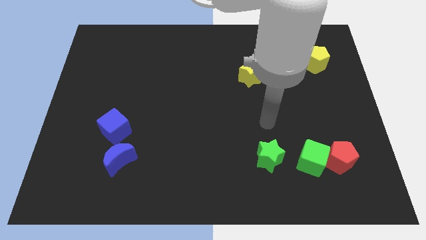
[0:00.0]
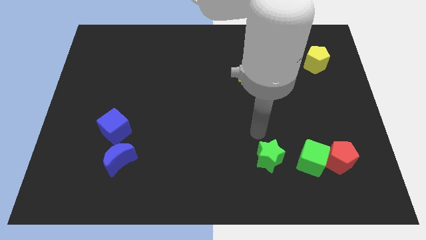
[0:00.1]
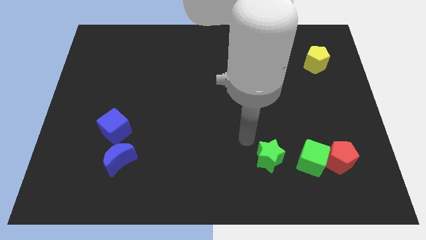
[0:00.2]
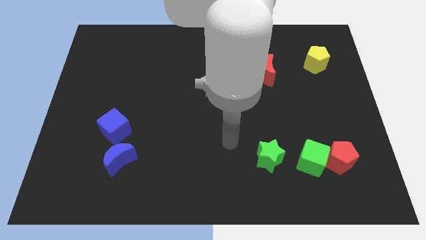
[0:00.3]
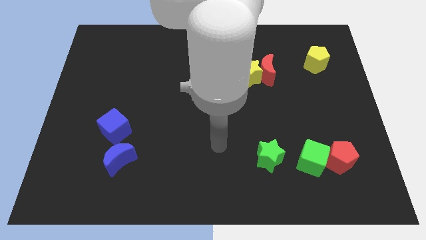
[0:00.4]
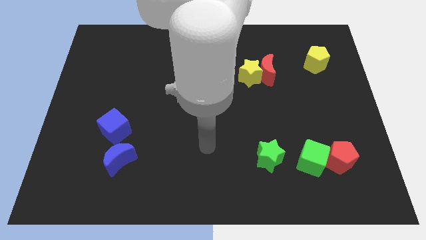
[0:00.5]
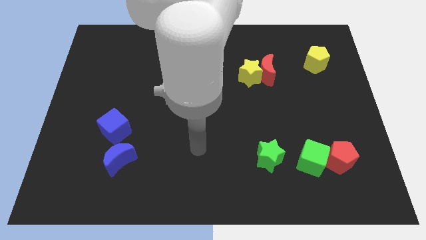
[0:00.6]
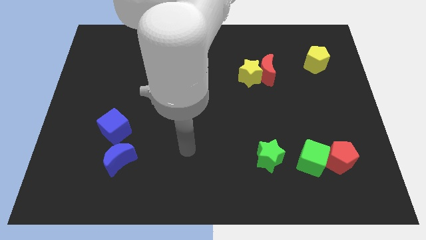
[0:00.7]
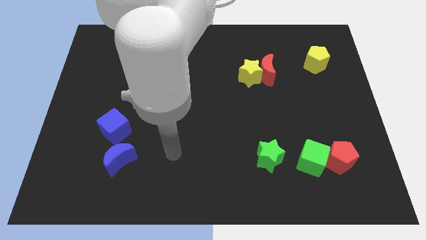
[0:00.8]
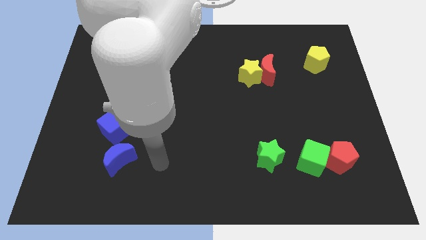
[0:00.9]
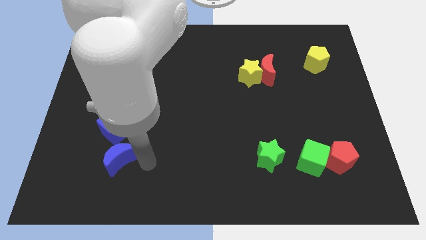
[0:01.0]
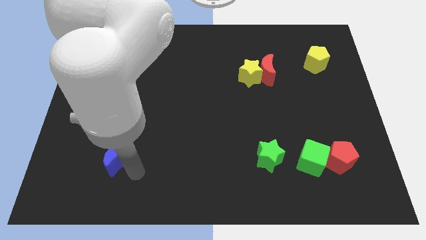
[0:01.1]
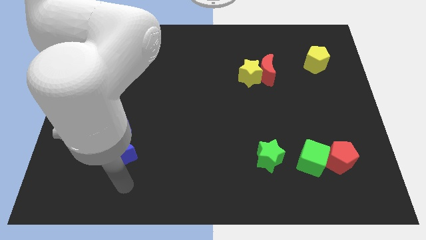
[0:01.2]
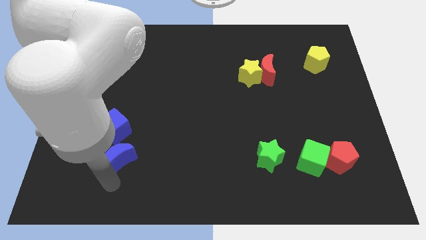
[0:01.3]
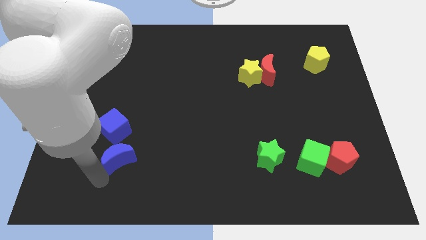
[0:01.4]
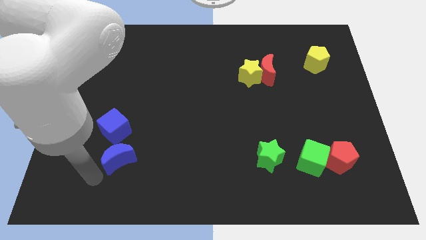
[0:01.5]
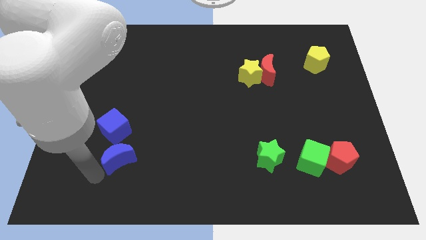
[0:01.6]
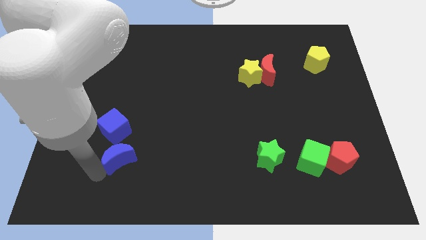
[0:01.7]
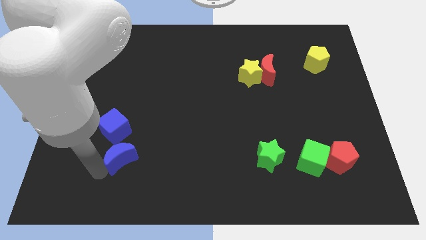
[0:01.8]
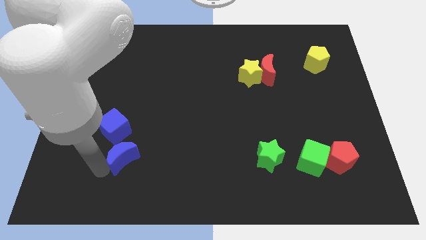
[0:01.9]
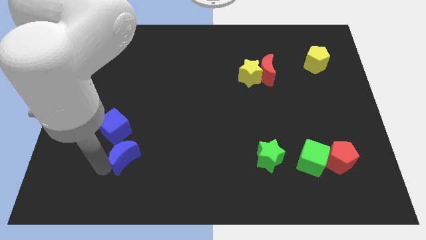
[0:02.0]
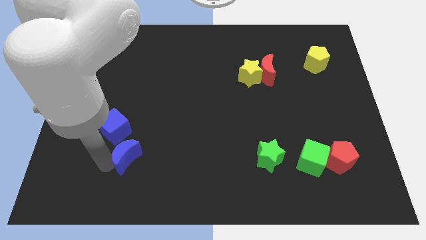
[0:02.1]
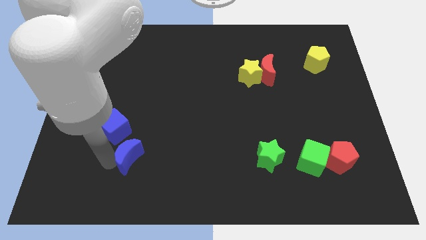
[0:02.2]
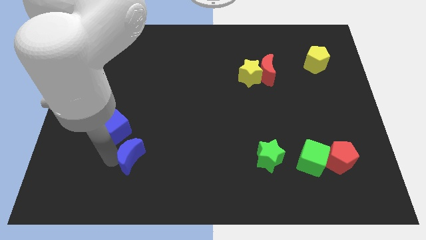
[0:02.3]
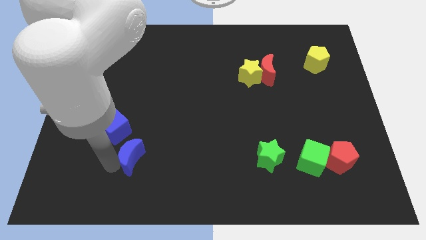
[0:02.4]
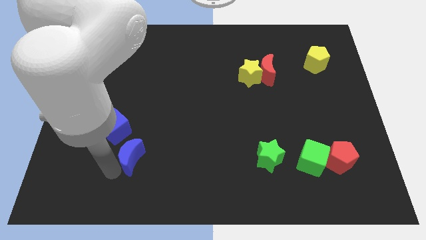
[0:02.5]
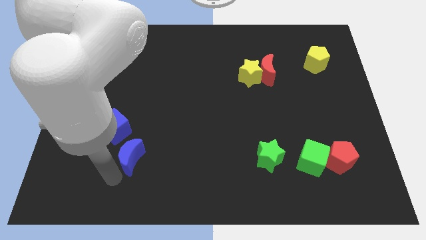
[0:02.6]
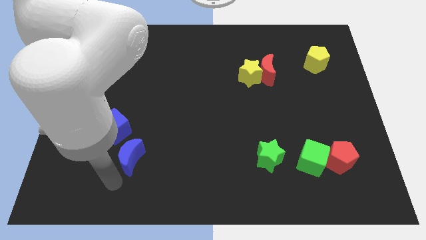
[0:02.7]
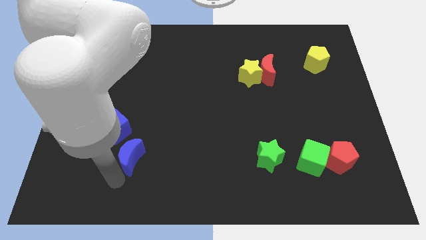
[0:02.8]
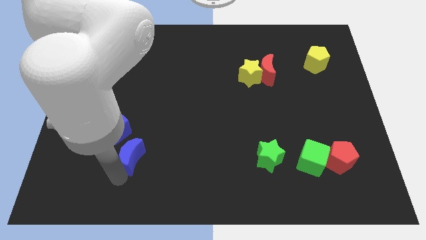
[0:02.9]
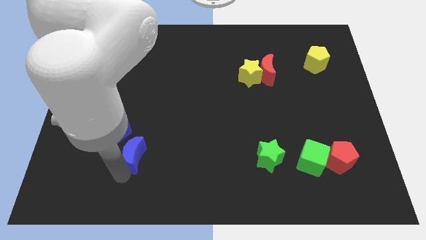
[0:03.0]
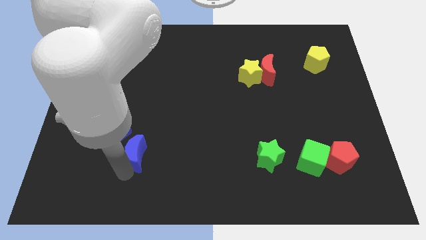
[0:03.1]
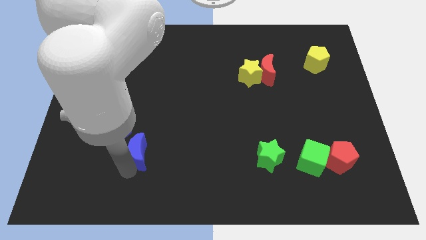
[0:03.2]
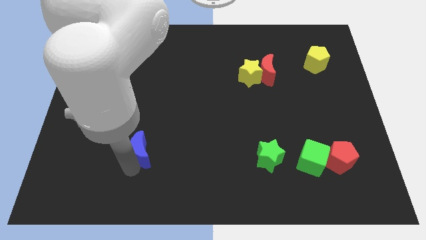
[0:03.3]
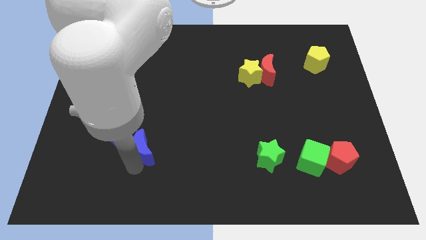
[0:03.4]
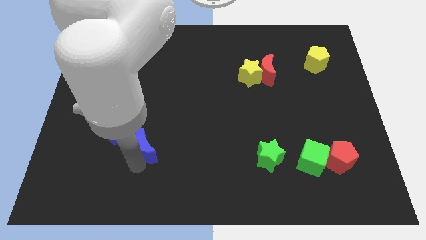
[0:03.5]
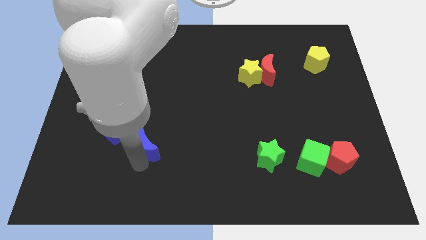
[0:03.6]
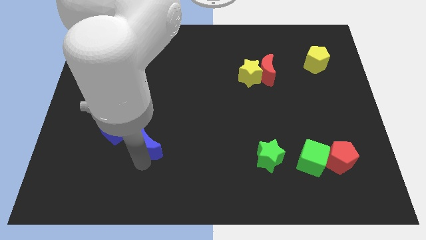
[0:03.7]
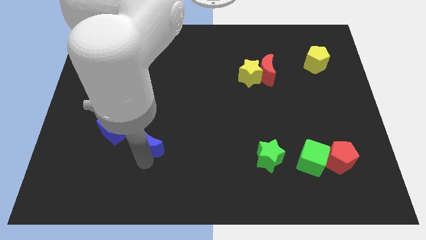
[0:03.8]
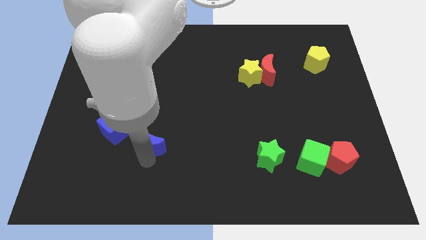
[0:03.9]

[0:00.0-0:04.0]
push the blue moon slightly up and to the right

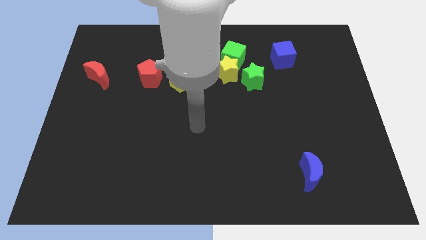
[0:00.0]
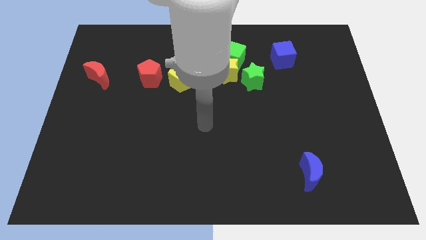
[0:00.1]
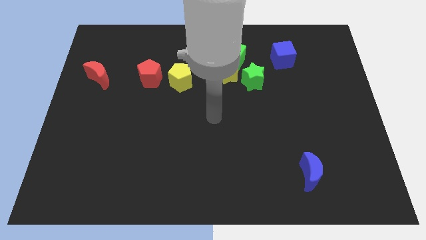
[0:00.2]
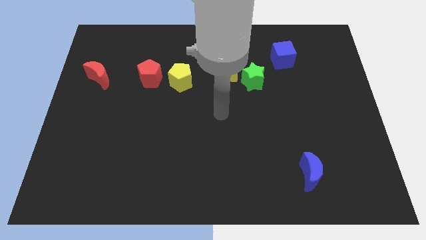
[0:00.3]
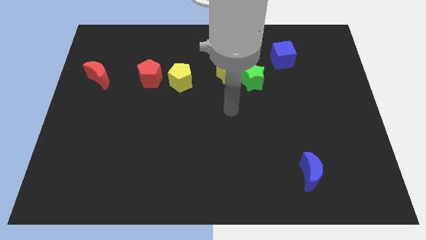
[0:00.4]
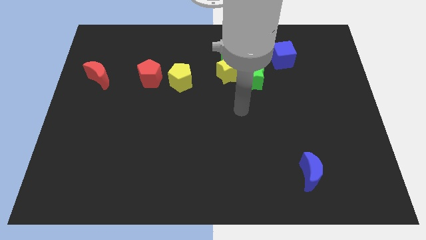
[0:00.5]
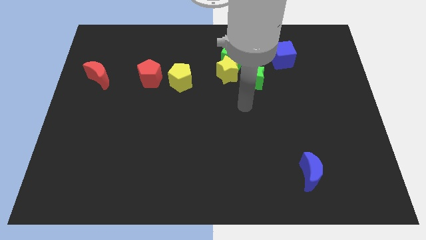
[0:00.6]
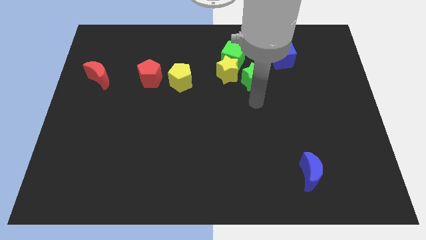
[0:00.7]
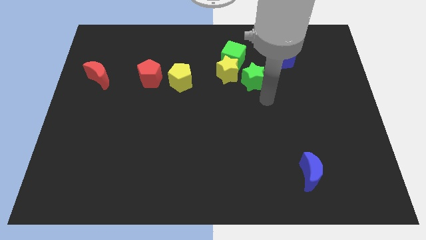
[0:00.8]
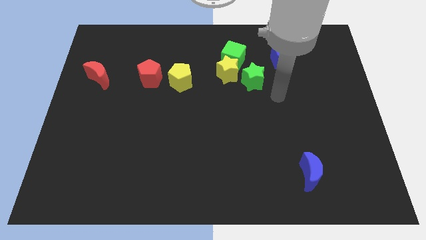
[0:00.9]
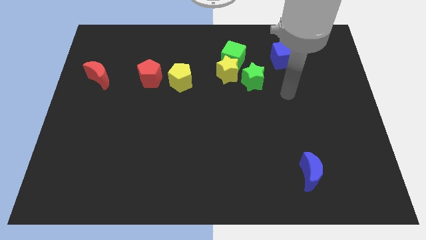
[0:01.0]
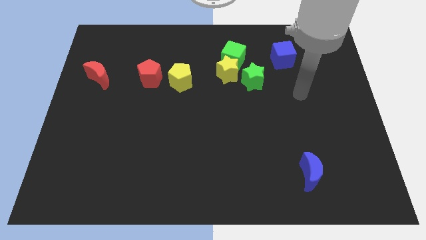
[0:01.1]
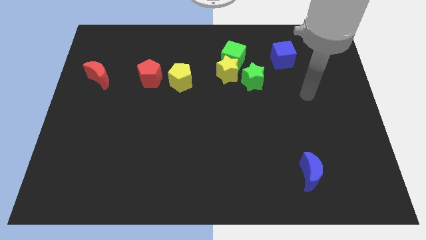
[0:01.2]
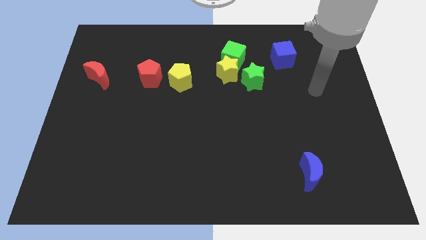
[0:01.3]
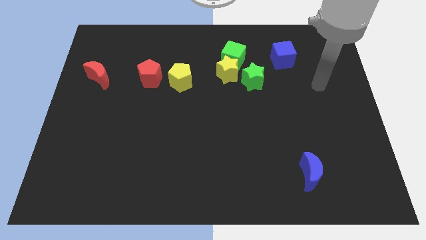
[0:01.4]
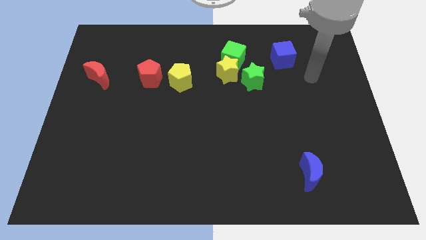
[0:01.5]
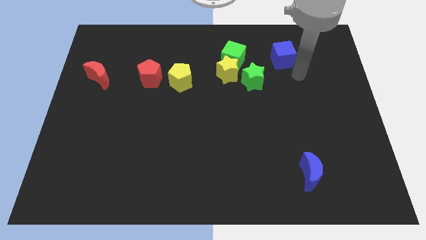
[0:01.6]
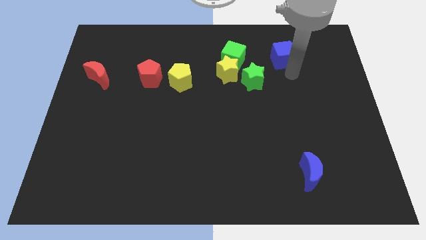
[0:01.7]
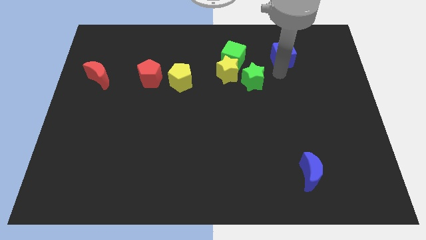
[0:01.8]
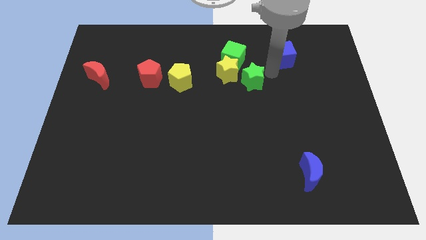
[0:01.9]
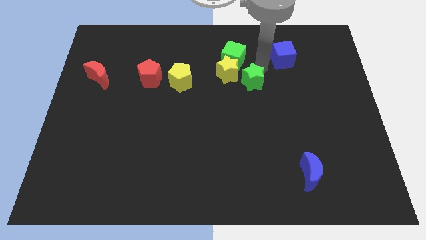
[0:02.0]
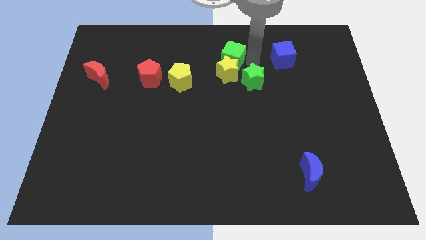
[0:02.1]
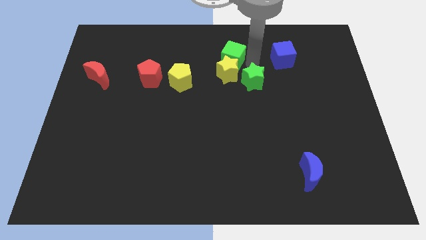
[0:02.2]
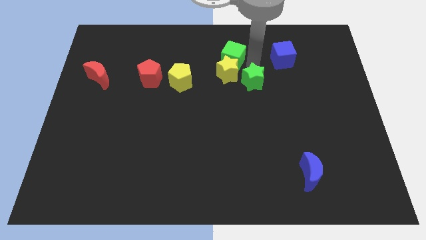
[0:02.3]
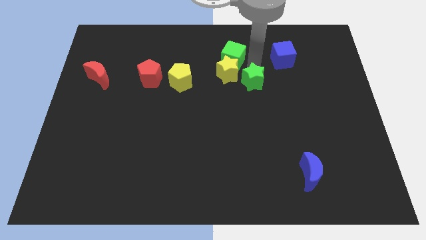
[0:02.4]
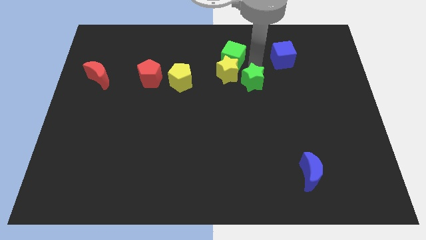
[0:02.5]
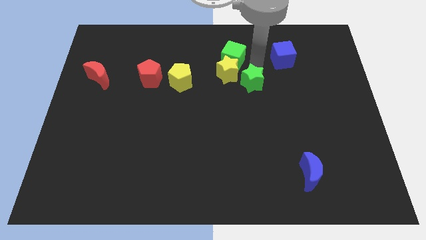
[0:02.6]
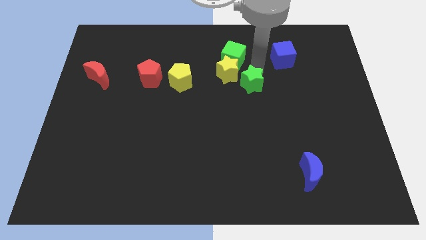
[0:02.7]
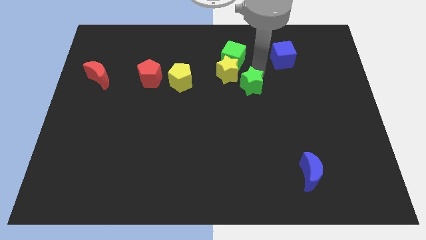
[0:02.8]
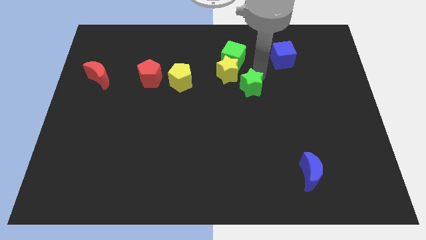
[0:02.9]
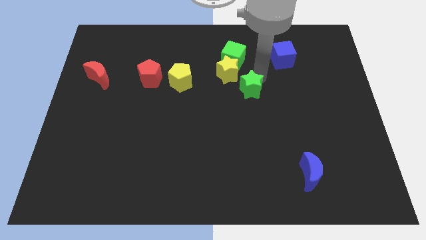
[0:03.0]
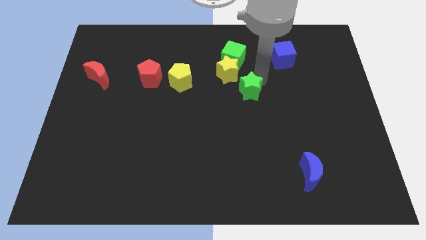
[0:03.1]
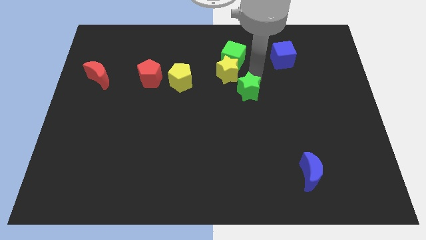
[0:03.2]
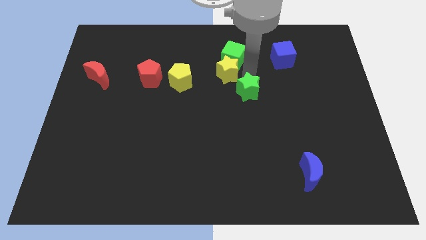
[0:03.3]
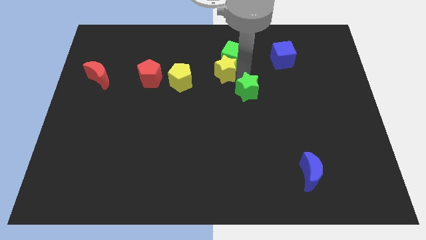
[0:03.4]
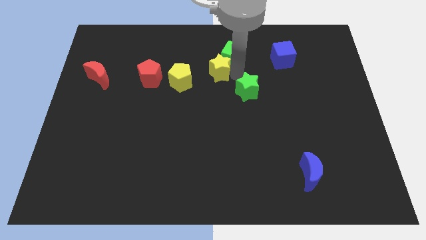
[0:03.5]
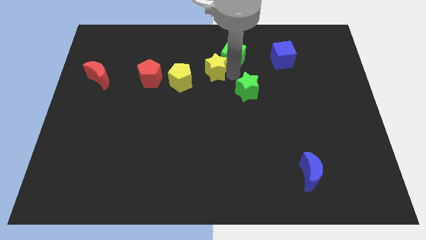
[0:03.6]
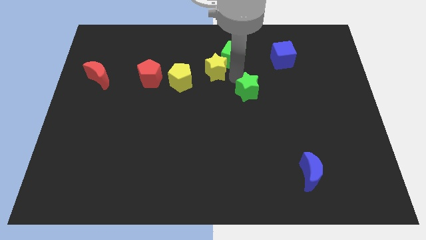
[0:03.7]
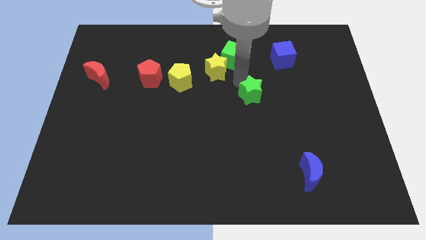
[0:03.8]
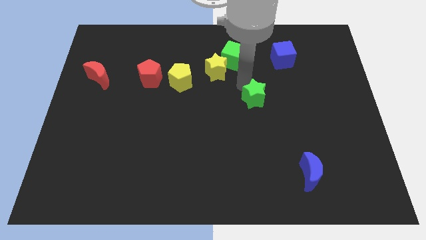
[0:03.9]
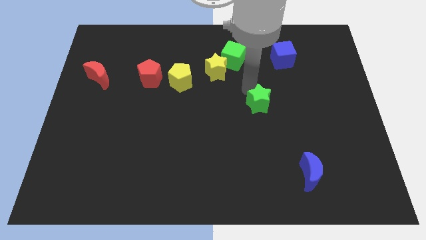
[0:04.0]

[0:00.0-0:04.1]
push the green star somewhat down
